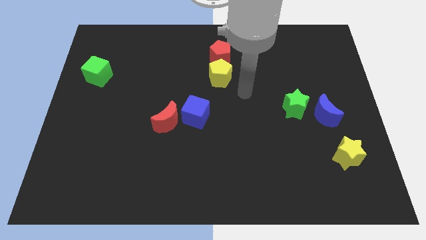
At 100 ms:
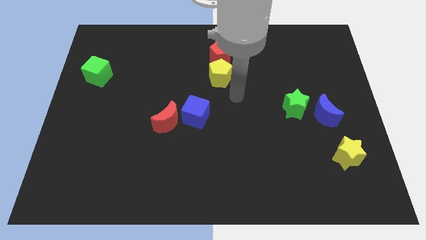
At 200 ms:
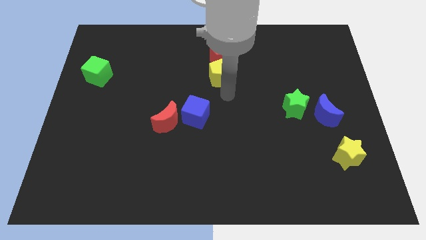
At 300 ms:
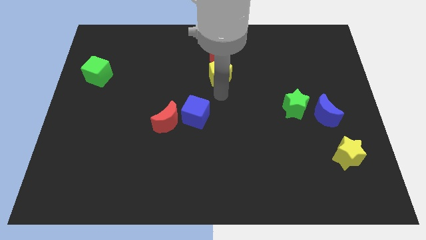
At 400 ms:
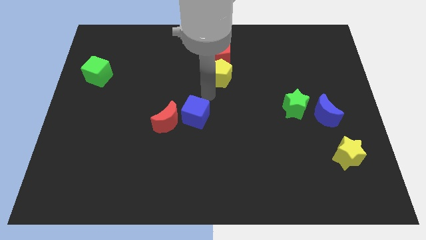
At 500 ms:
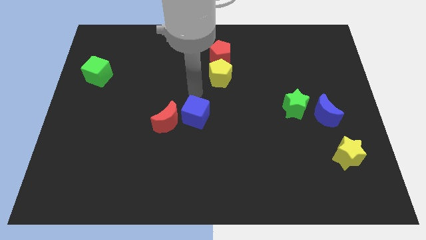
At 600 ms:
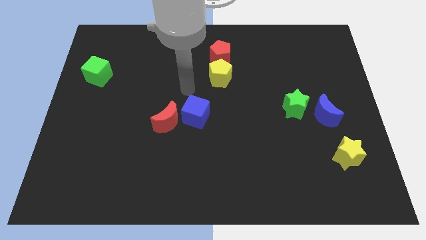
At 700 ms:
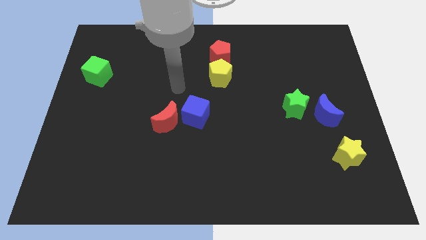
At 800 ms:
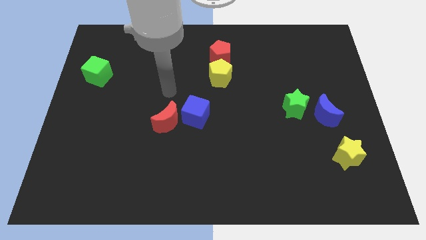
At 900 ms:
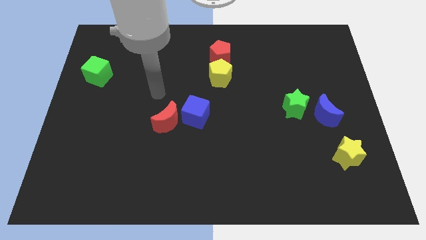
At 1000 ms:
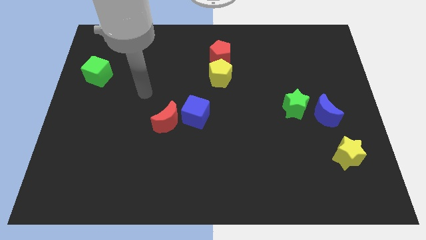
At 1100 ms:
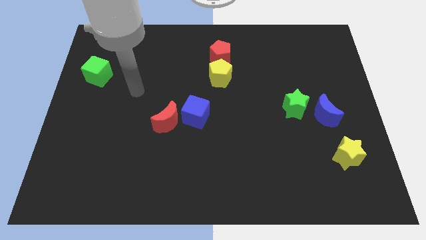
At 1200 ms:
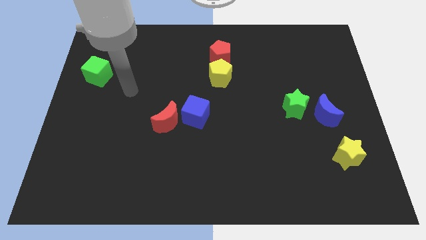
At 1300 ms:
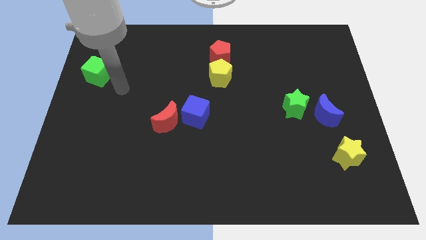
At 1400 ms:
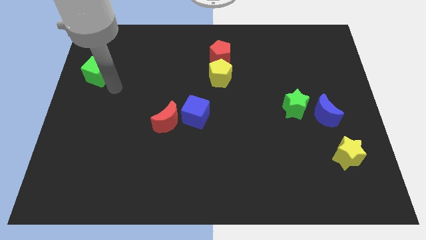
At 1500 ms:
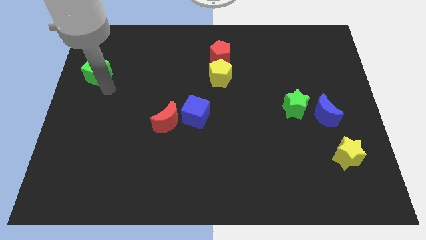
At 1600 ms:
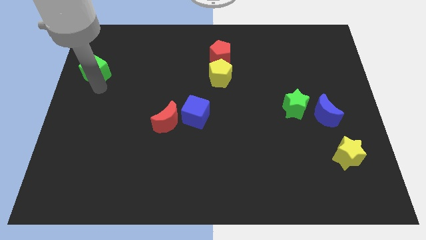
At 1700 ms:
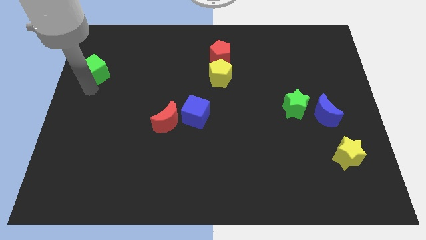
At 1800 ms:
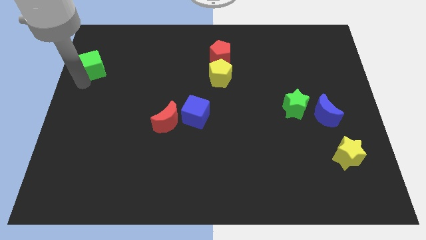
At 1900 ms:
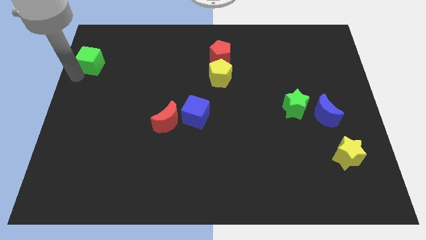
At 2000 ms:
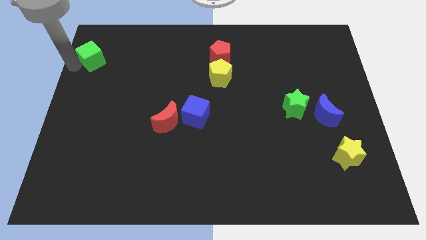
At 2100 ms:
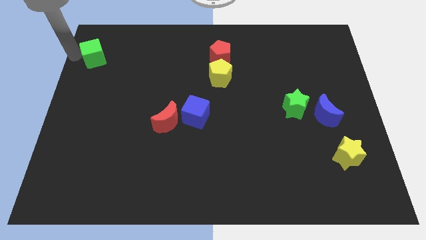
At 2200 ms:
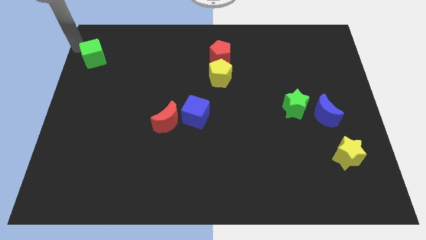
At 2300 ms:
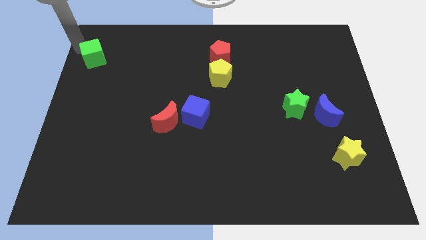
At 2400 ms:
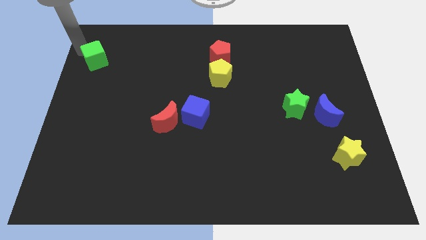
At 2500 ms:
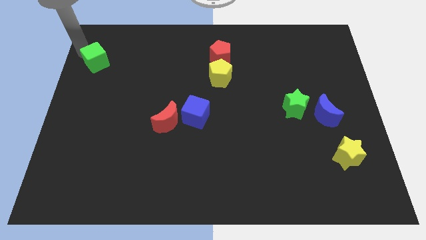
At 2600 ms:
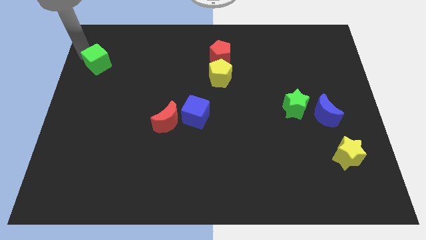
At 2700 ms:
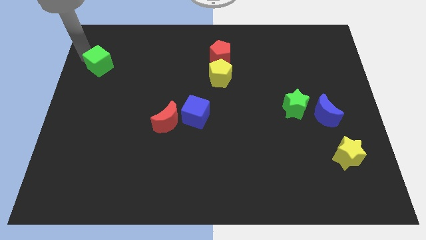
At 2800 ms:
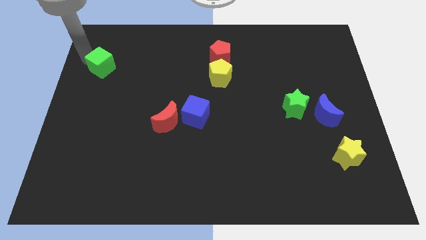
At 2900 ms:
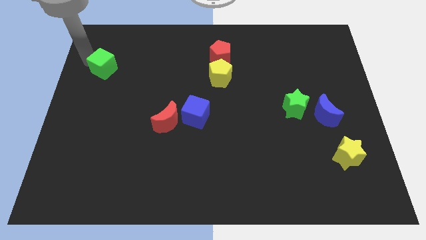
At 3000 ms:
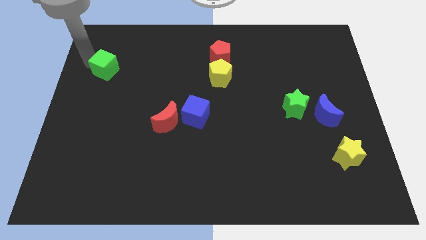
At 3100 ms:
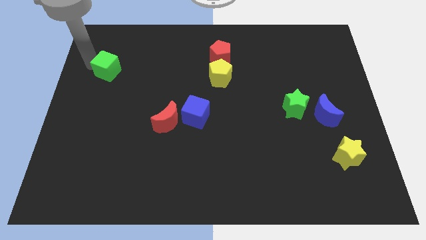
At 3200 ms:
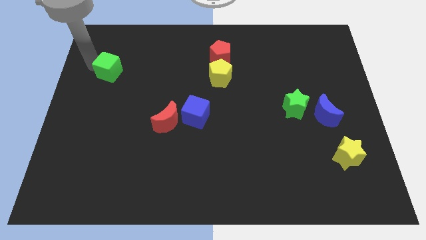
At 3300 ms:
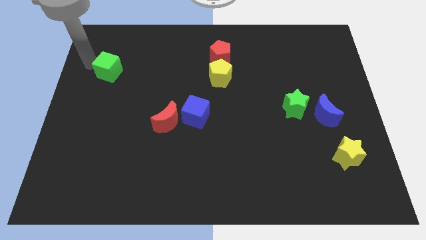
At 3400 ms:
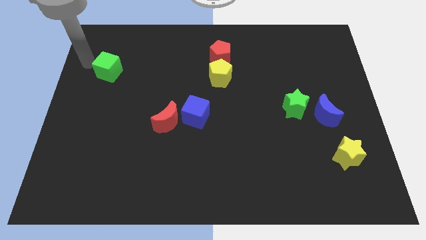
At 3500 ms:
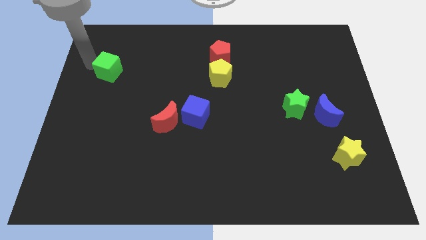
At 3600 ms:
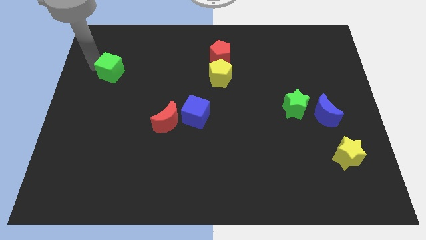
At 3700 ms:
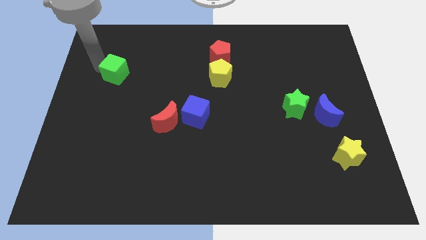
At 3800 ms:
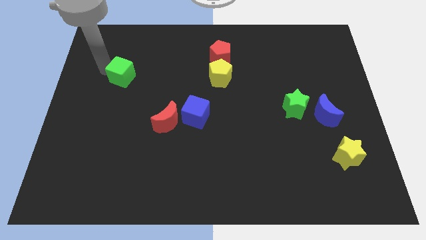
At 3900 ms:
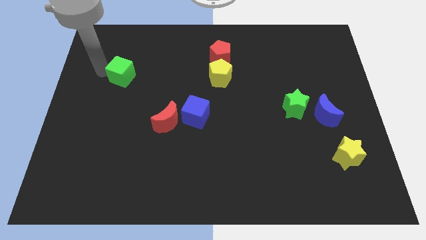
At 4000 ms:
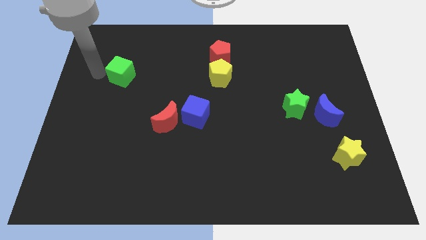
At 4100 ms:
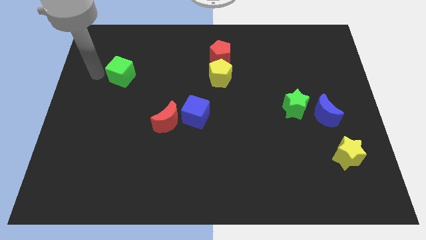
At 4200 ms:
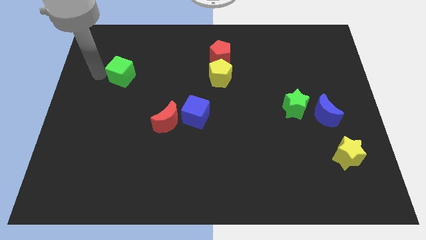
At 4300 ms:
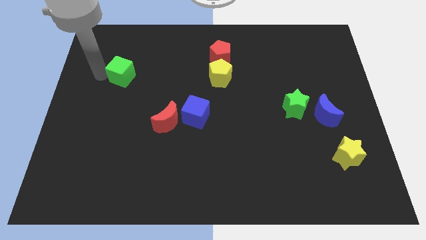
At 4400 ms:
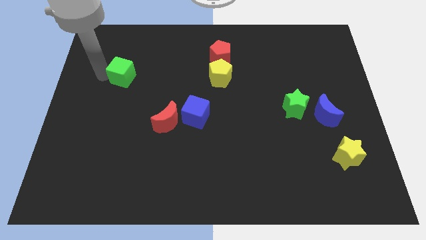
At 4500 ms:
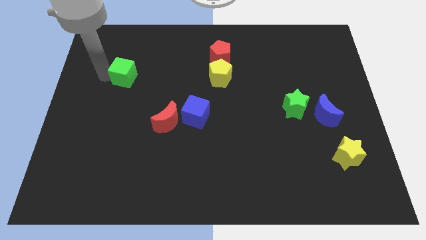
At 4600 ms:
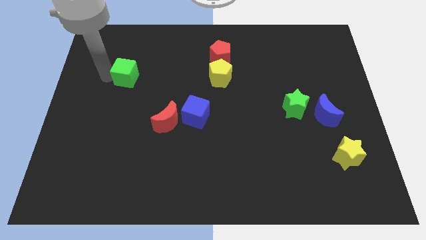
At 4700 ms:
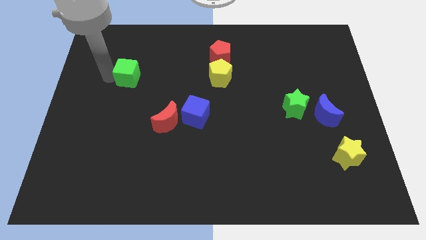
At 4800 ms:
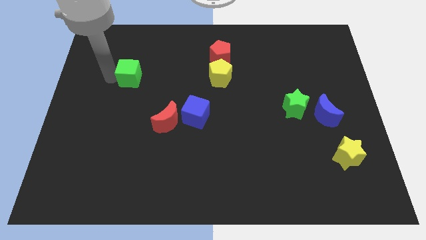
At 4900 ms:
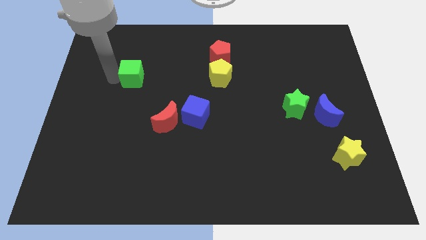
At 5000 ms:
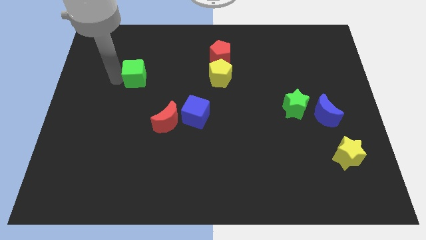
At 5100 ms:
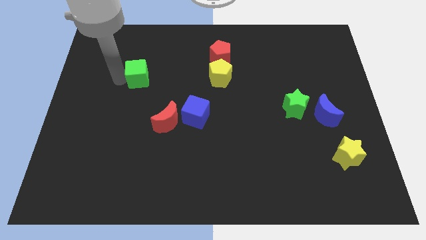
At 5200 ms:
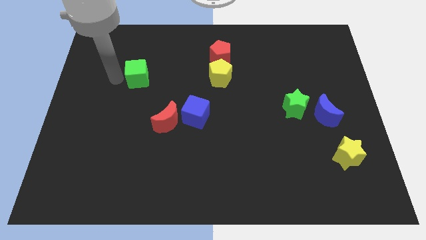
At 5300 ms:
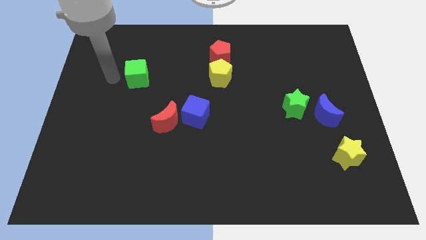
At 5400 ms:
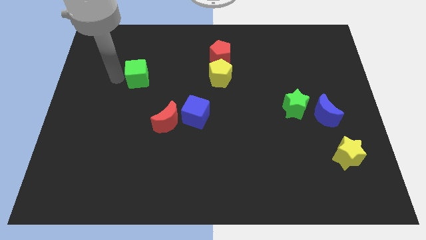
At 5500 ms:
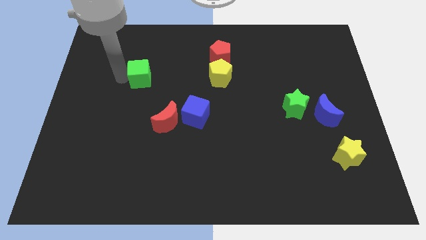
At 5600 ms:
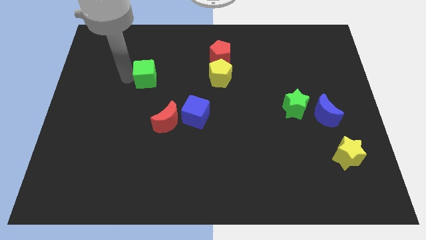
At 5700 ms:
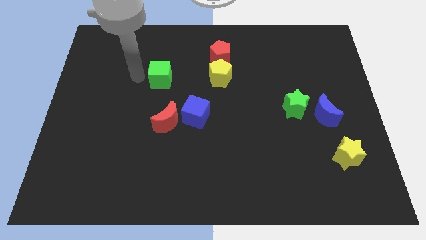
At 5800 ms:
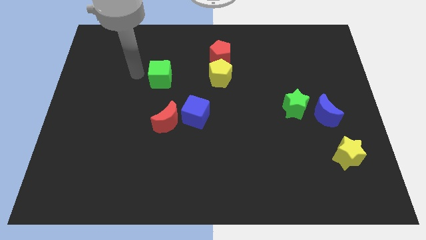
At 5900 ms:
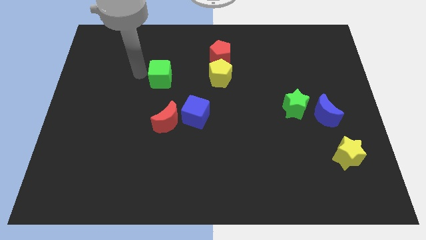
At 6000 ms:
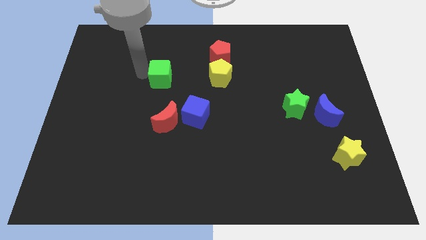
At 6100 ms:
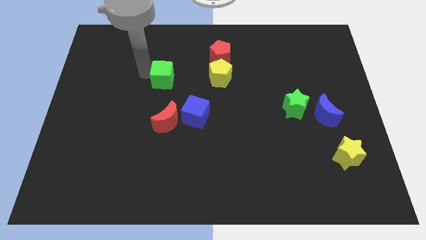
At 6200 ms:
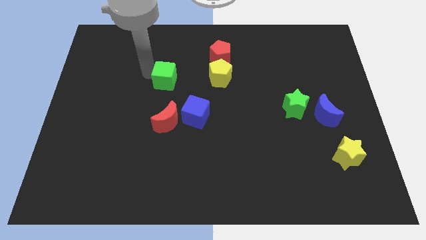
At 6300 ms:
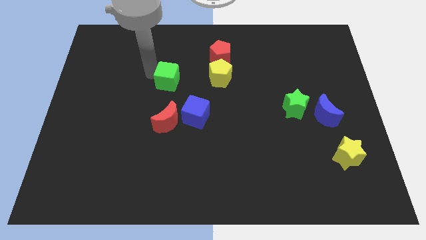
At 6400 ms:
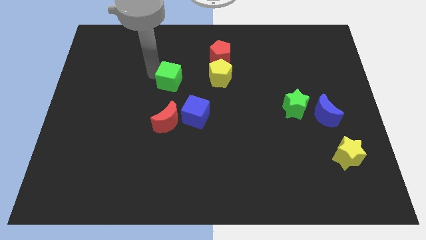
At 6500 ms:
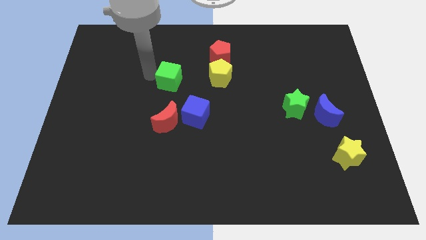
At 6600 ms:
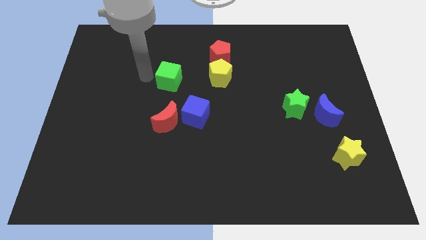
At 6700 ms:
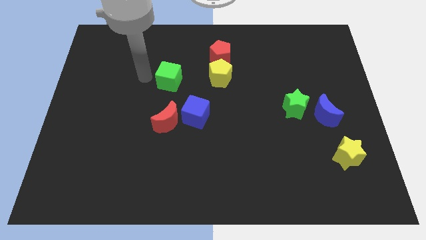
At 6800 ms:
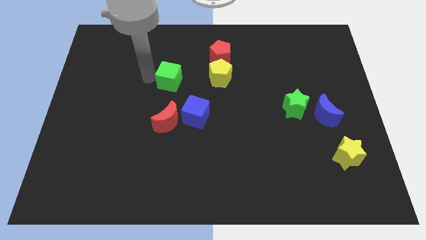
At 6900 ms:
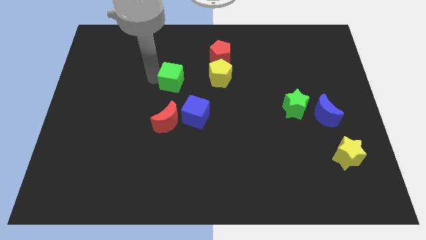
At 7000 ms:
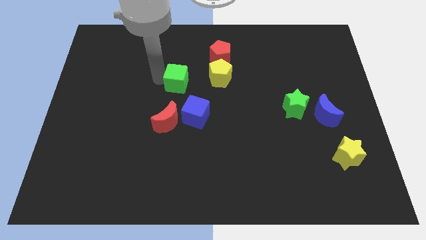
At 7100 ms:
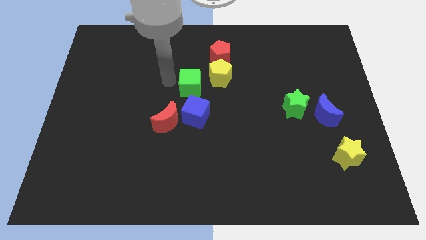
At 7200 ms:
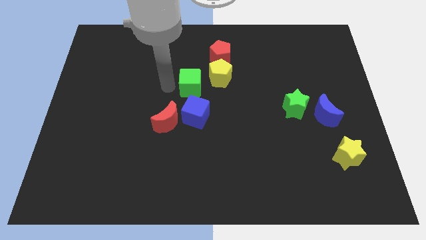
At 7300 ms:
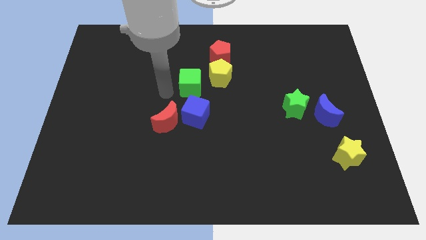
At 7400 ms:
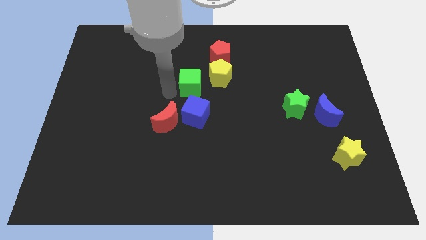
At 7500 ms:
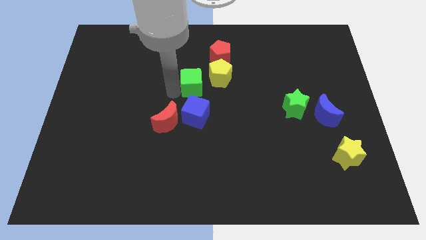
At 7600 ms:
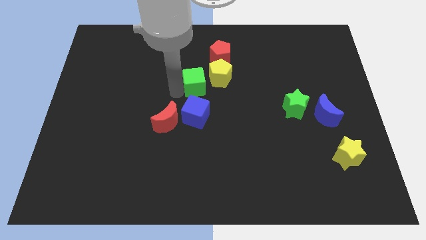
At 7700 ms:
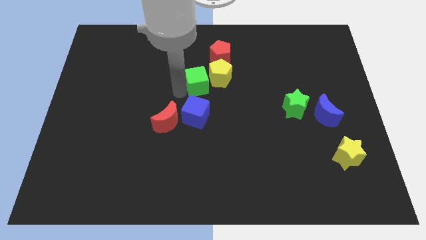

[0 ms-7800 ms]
push the green cube next to the yellow pentagon
